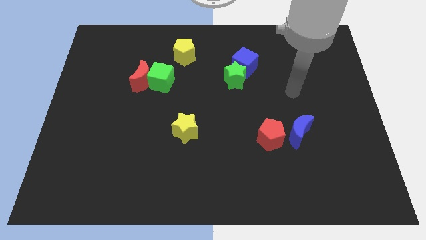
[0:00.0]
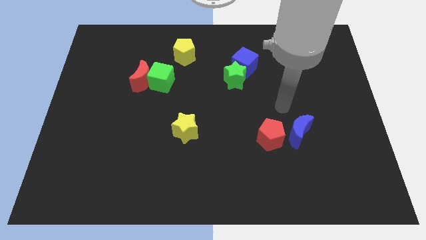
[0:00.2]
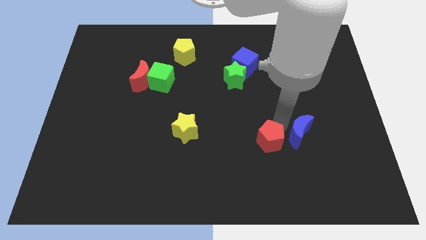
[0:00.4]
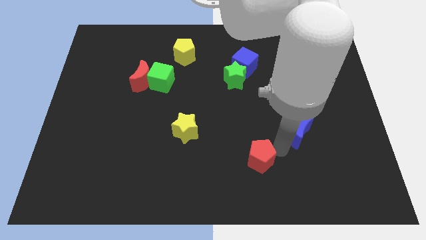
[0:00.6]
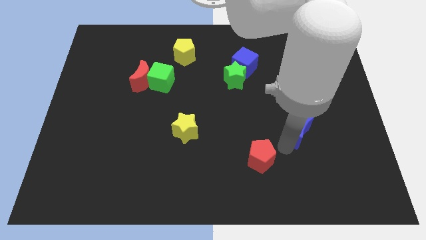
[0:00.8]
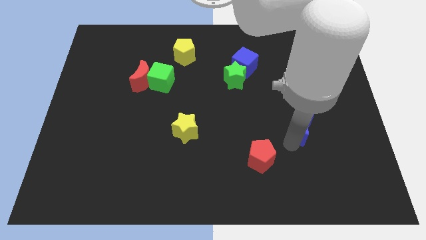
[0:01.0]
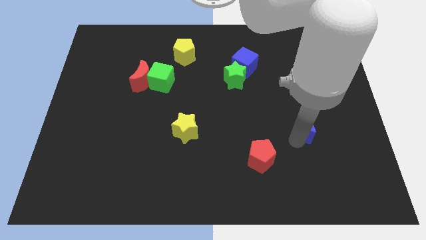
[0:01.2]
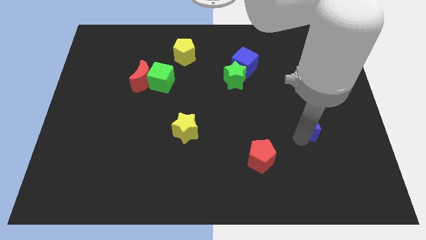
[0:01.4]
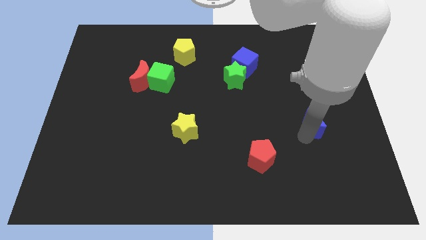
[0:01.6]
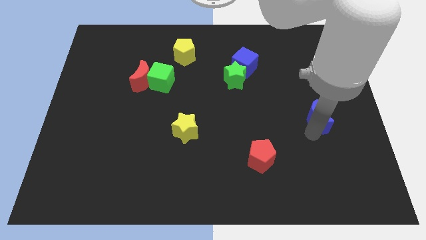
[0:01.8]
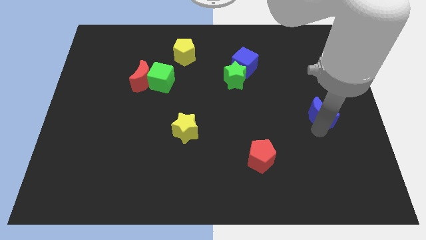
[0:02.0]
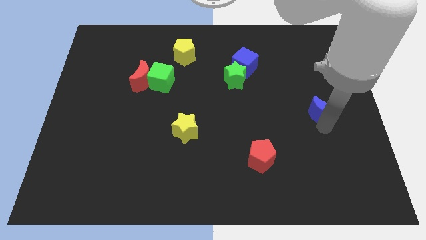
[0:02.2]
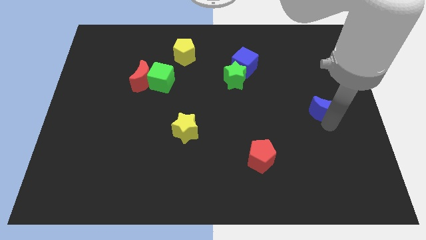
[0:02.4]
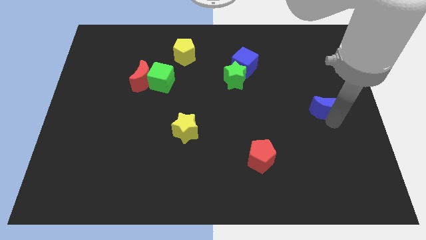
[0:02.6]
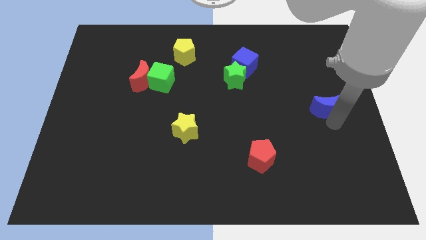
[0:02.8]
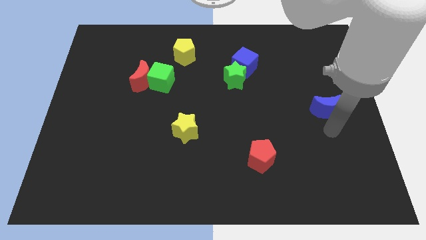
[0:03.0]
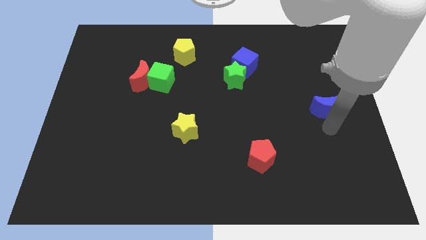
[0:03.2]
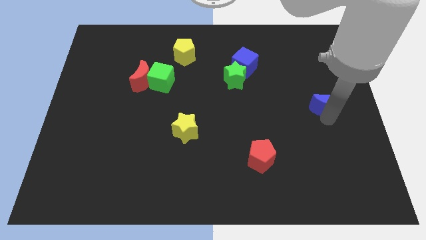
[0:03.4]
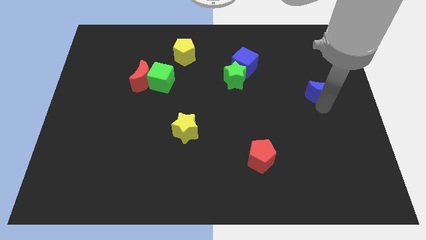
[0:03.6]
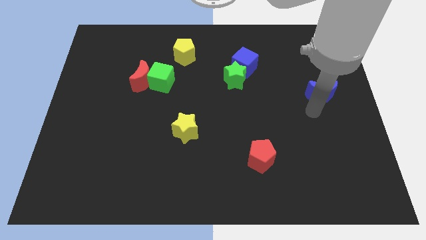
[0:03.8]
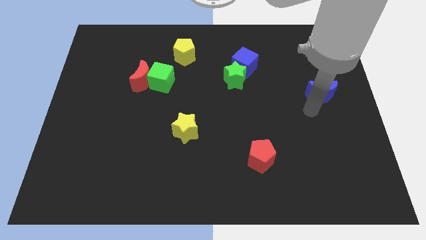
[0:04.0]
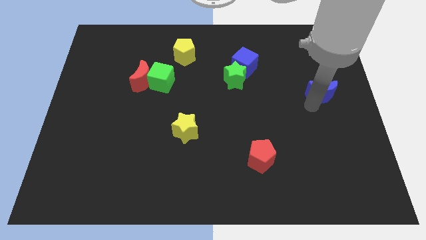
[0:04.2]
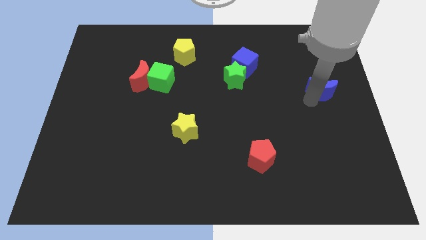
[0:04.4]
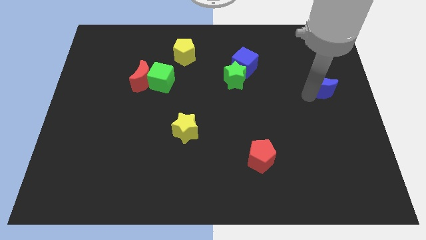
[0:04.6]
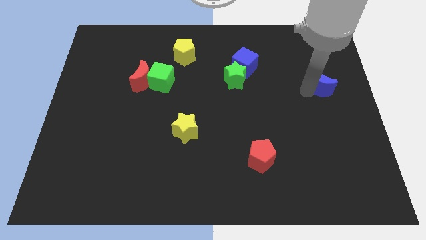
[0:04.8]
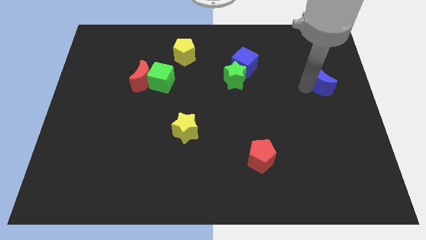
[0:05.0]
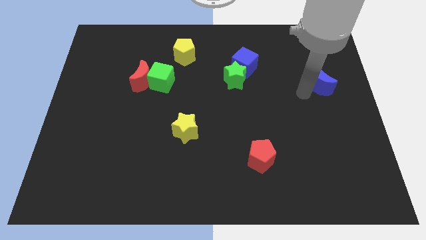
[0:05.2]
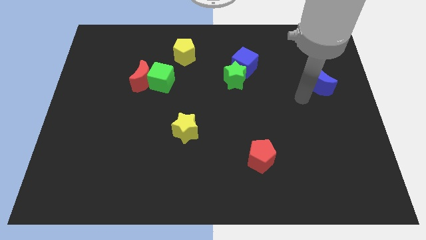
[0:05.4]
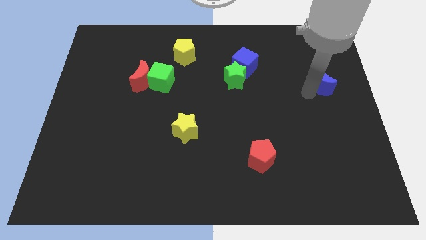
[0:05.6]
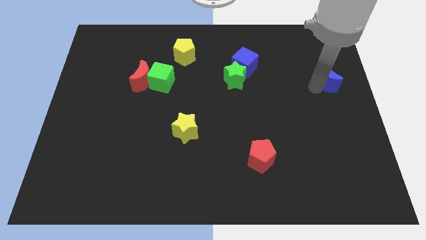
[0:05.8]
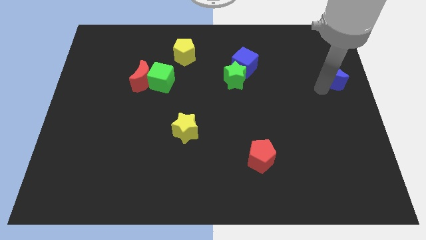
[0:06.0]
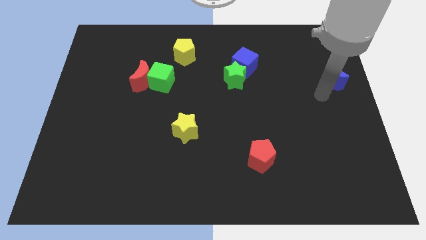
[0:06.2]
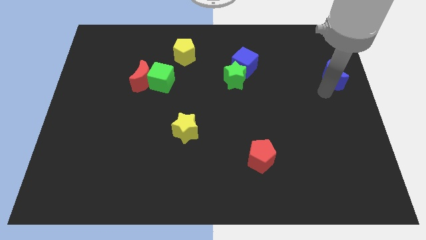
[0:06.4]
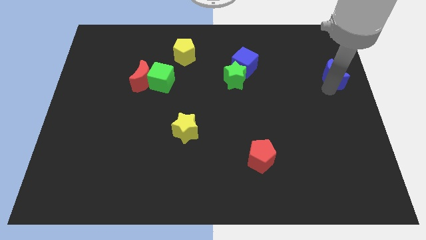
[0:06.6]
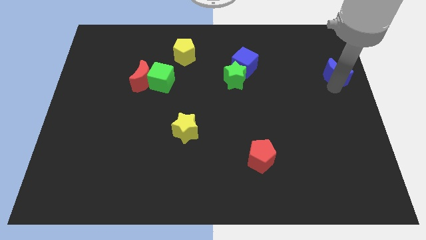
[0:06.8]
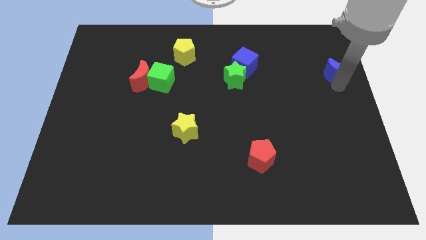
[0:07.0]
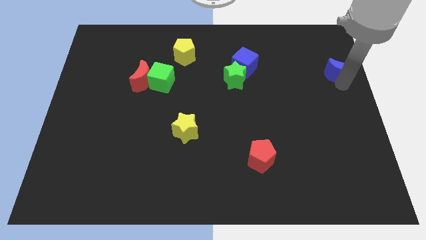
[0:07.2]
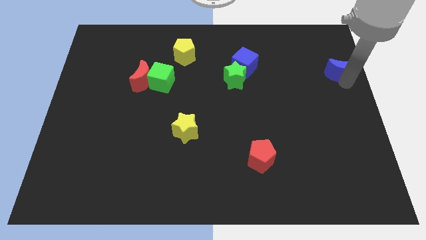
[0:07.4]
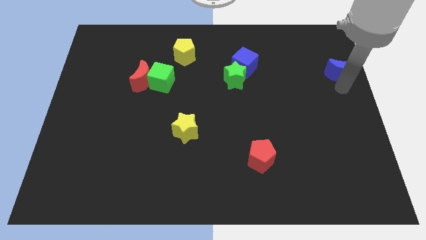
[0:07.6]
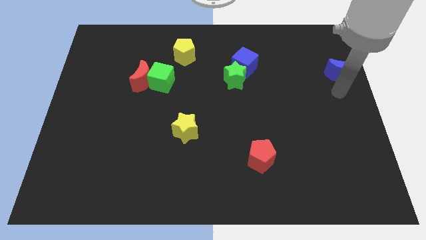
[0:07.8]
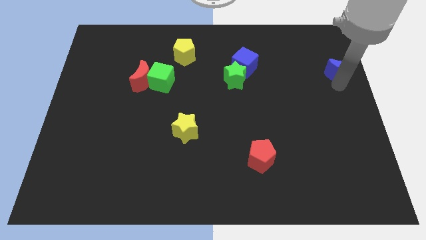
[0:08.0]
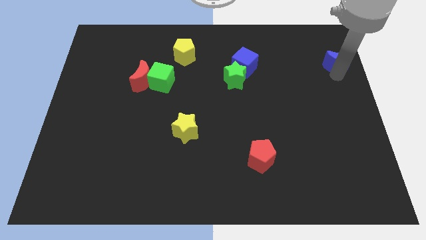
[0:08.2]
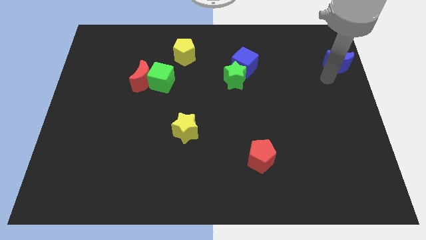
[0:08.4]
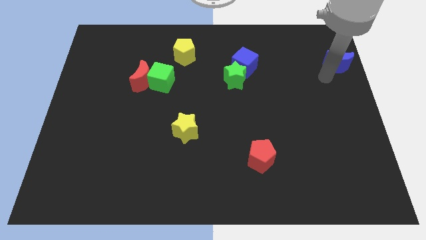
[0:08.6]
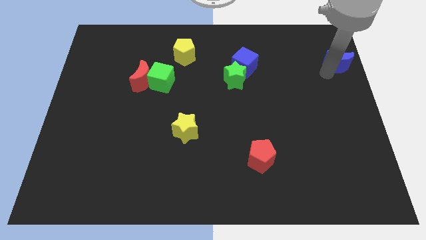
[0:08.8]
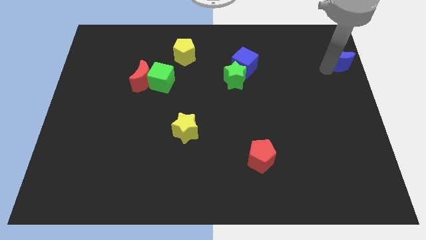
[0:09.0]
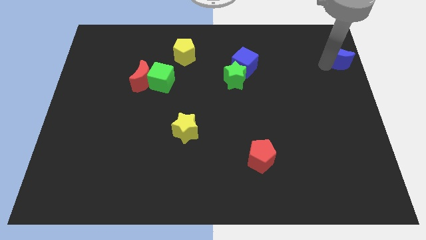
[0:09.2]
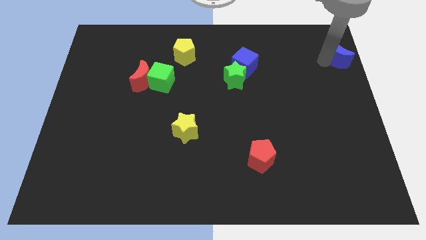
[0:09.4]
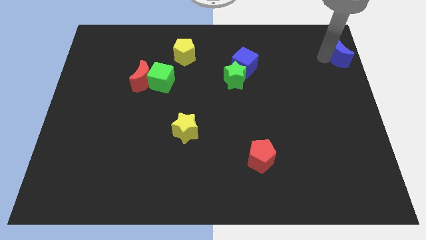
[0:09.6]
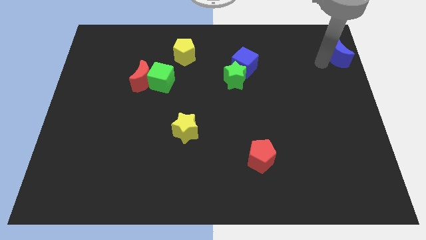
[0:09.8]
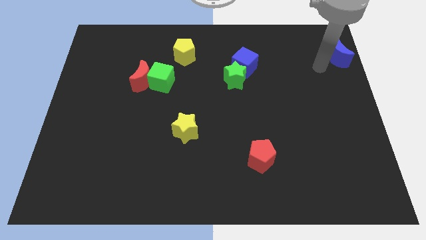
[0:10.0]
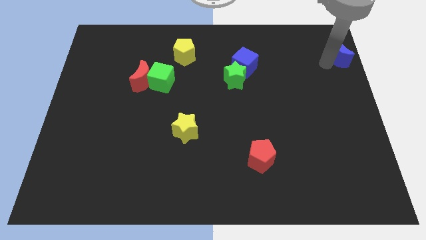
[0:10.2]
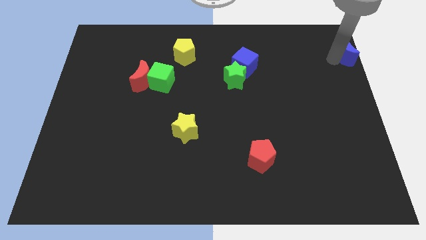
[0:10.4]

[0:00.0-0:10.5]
push the blue moon to the top right of the board
